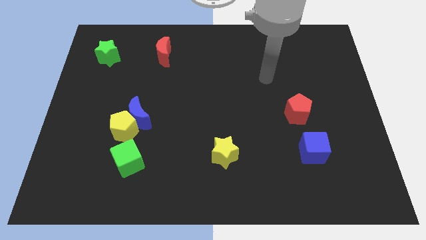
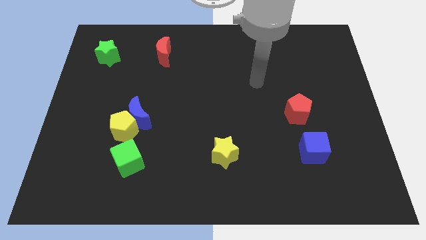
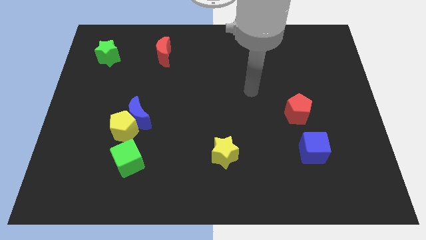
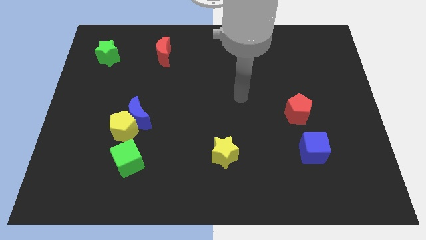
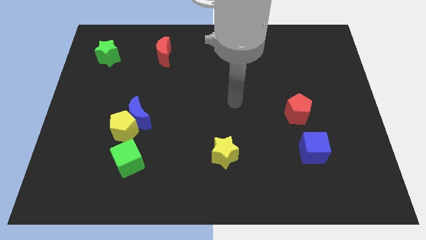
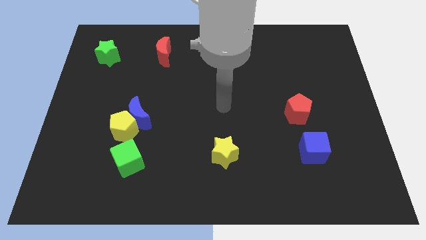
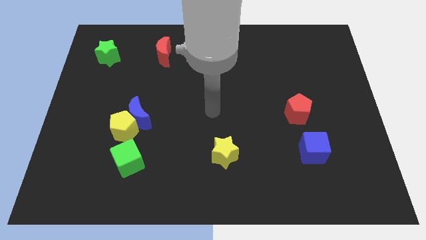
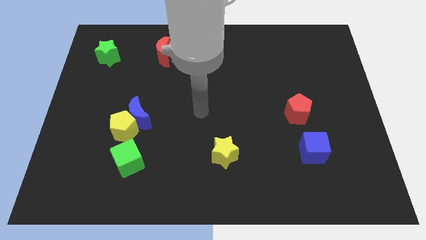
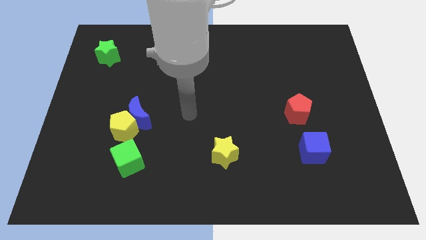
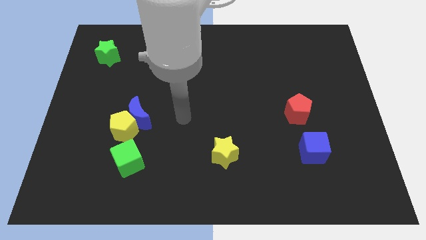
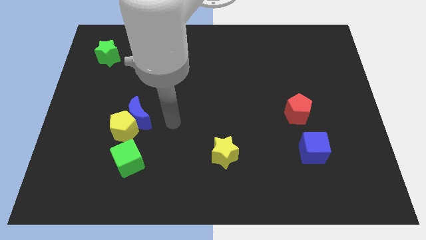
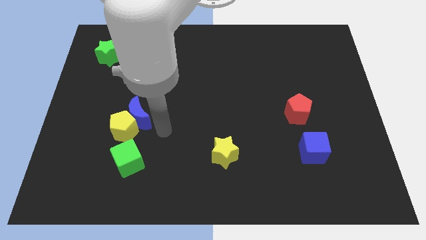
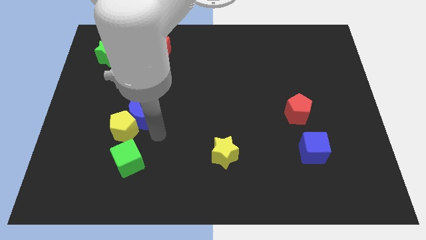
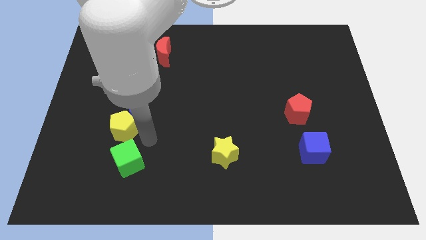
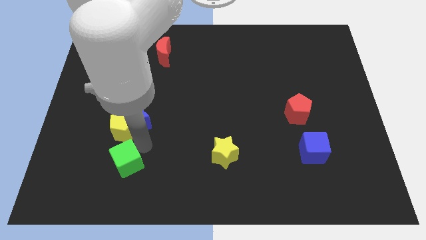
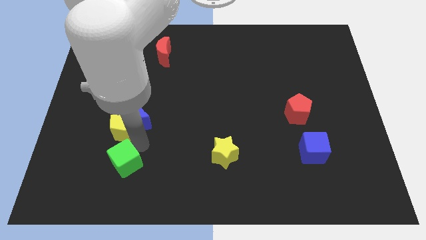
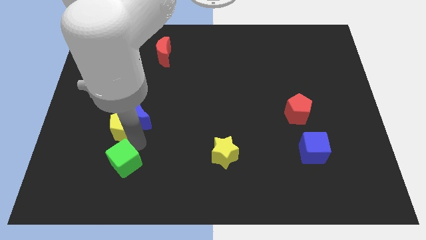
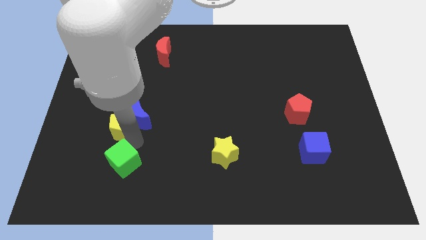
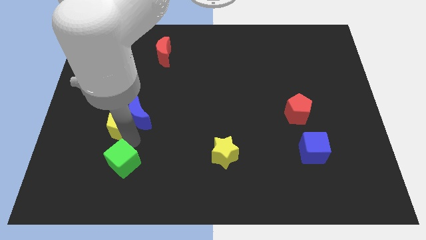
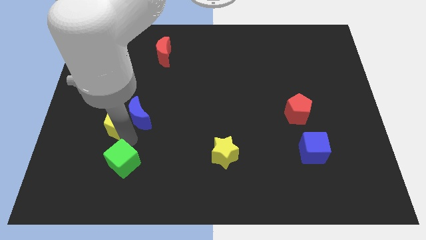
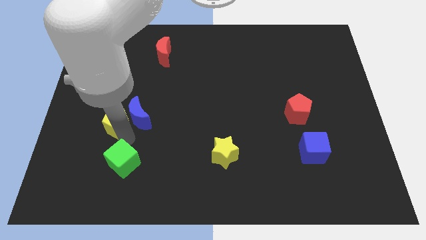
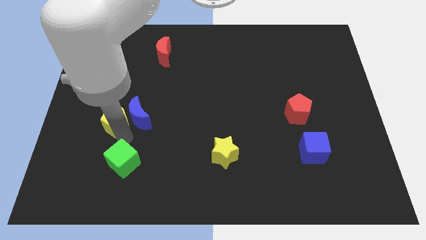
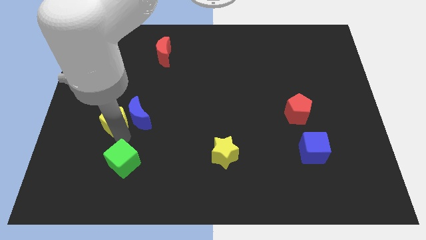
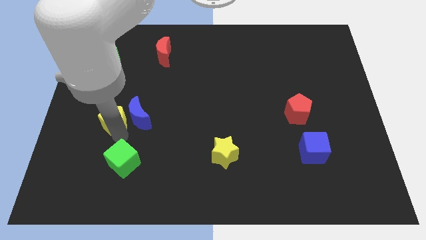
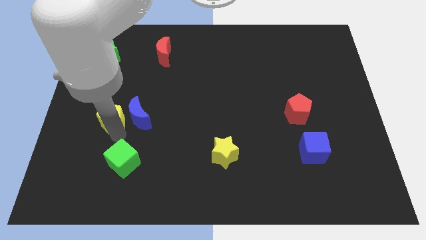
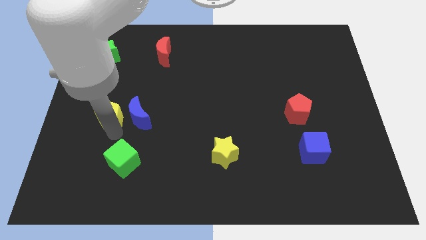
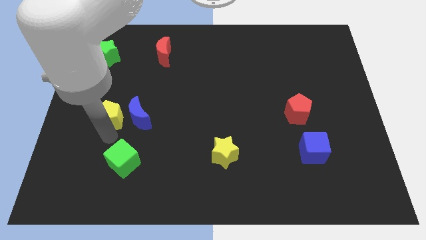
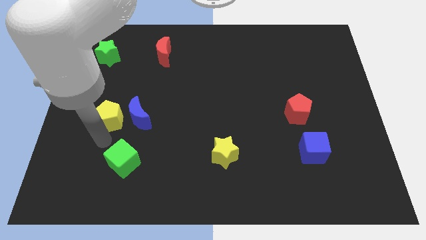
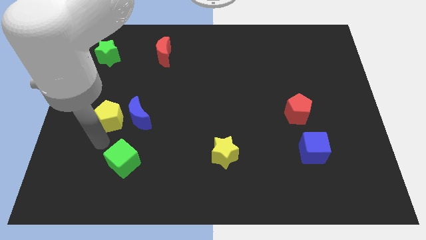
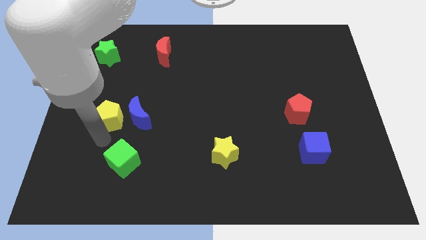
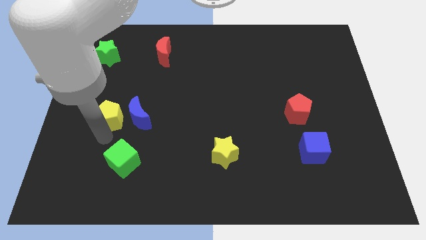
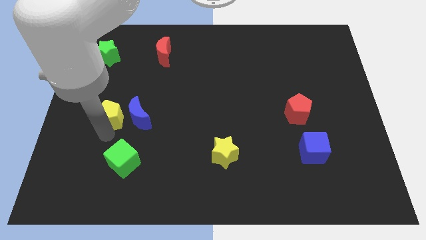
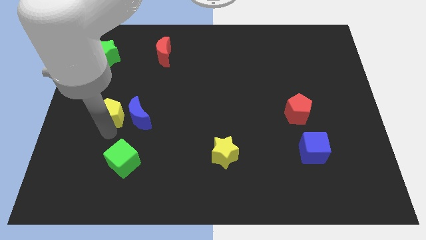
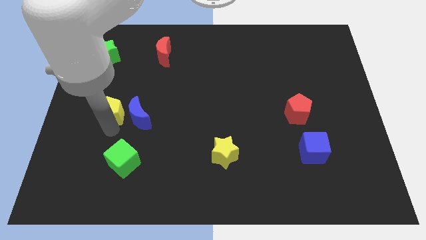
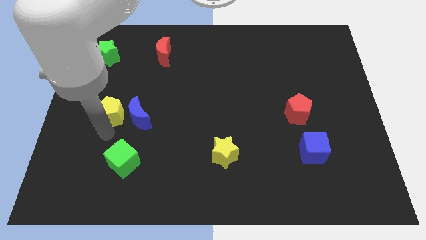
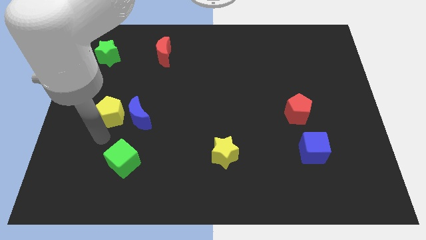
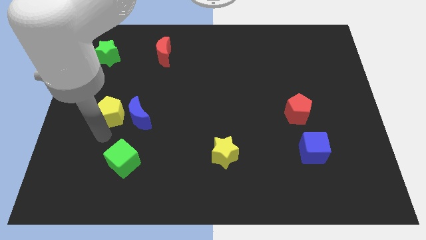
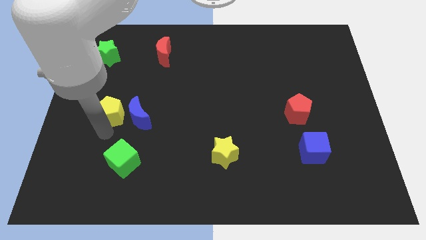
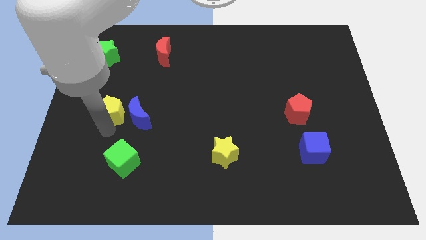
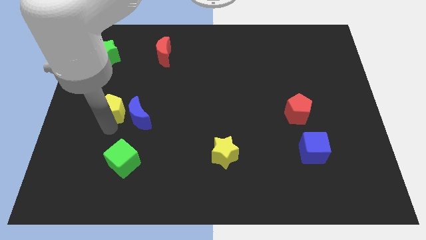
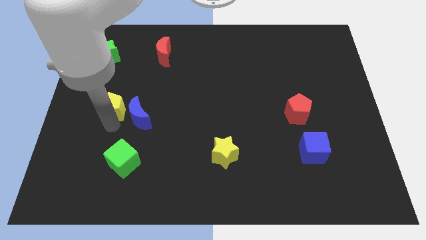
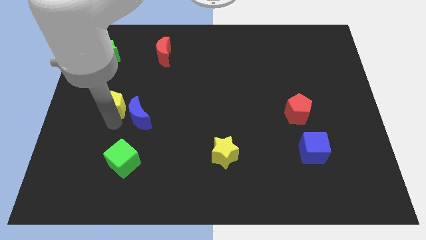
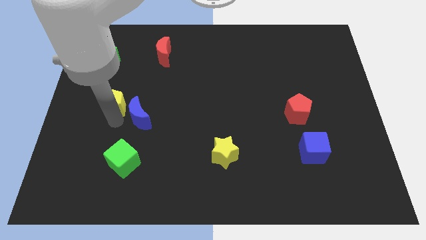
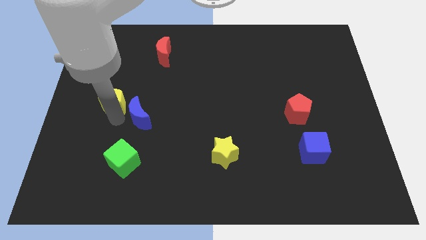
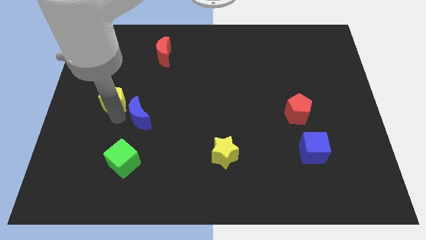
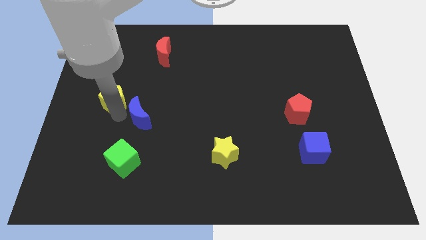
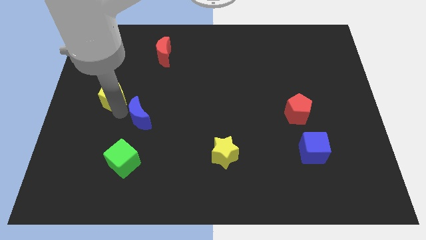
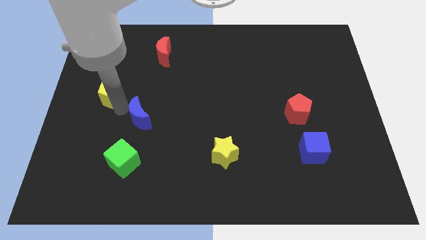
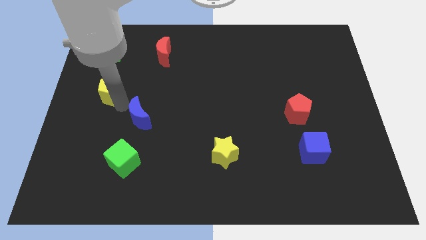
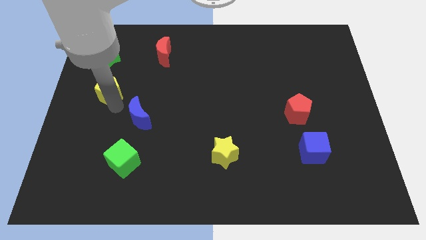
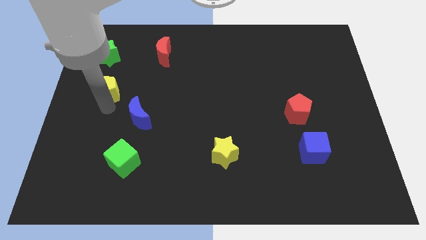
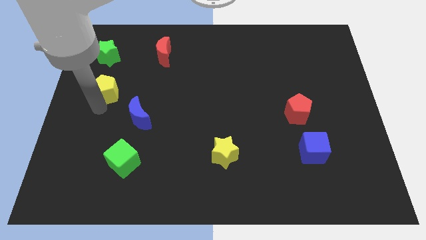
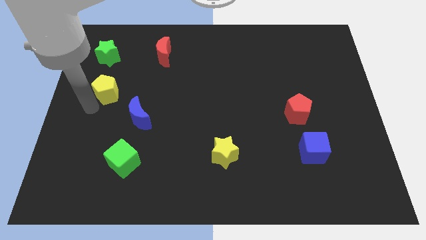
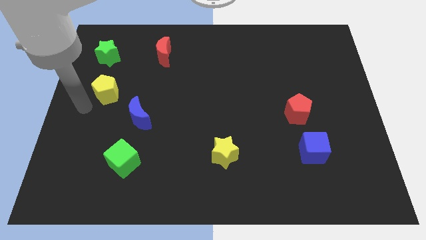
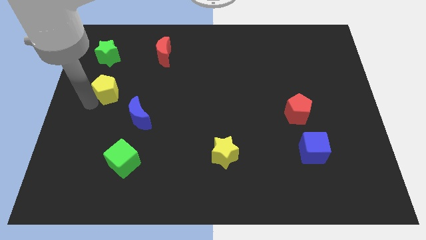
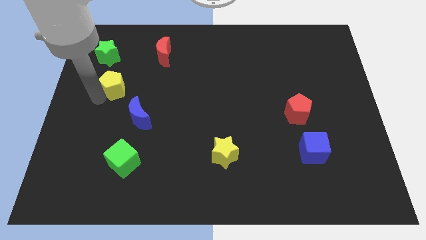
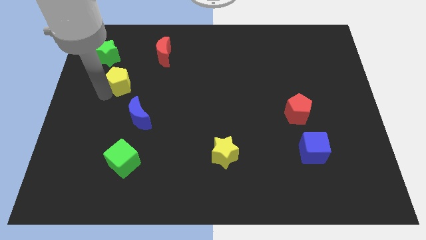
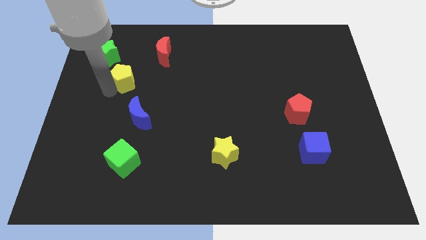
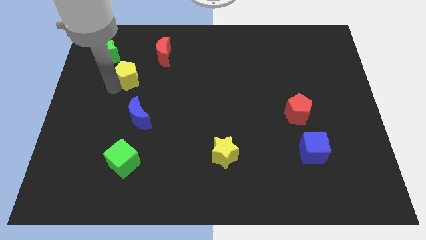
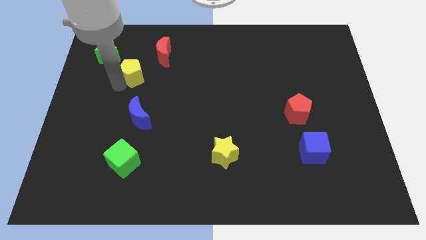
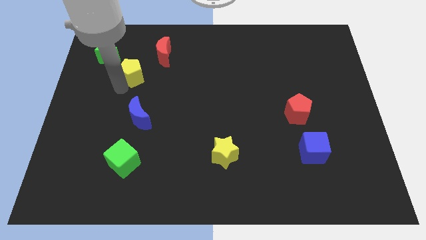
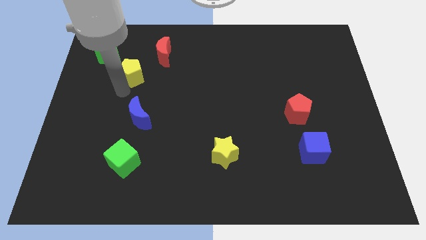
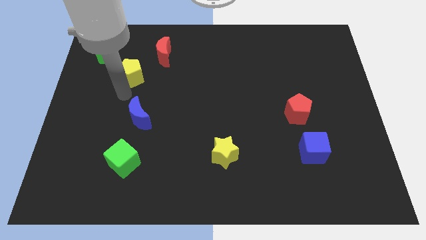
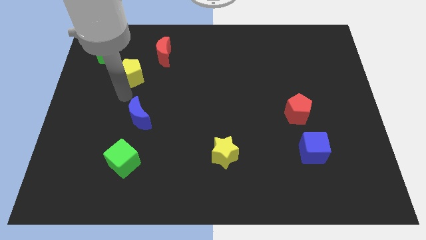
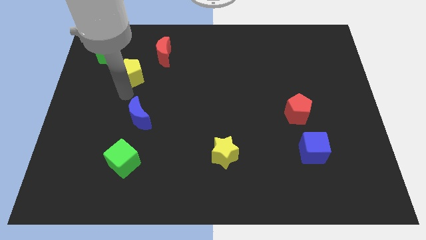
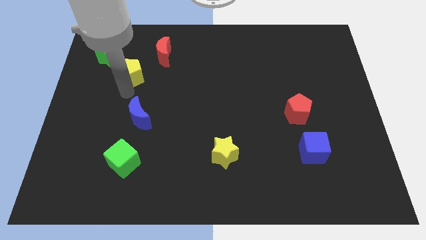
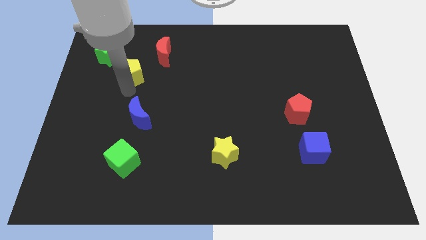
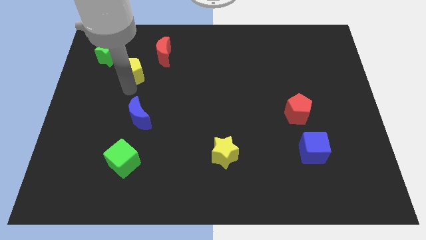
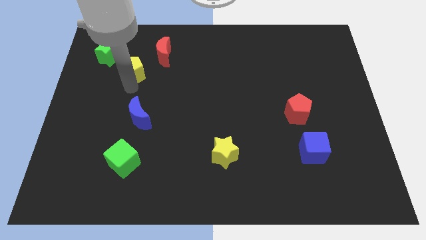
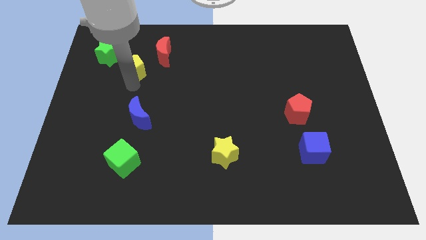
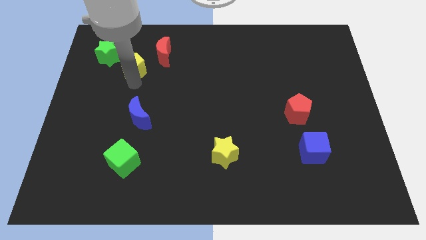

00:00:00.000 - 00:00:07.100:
put the yellow pentagon to the right side of the green star

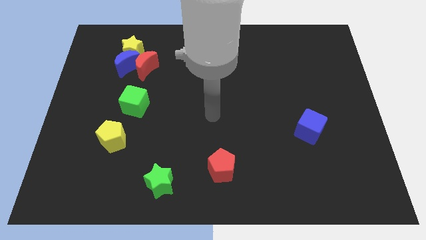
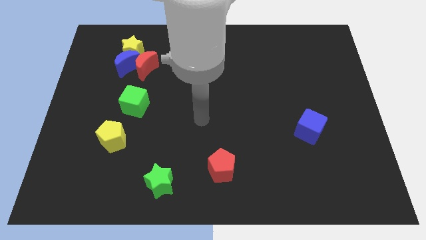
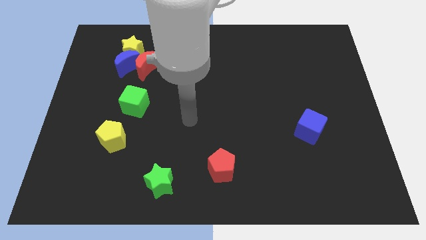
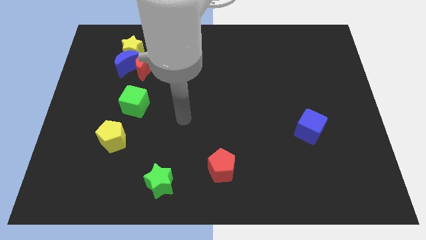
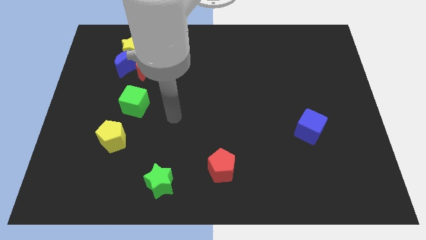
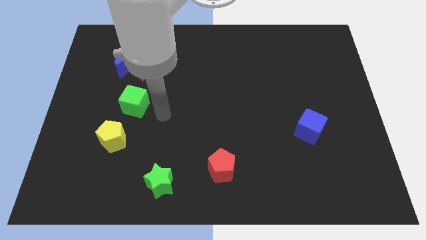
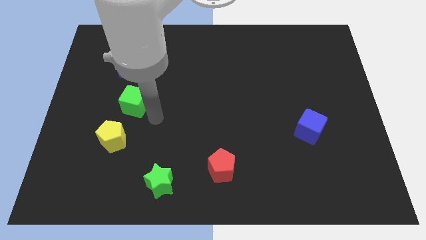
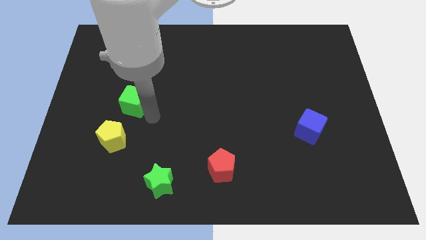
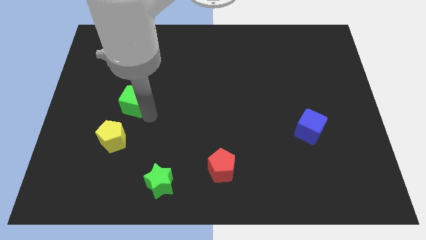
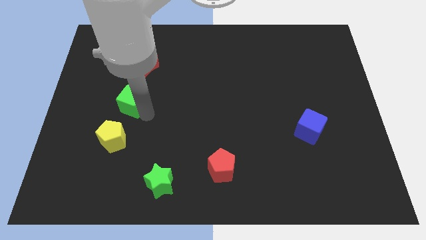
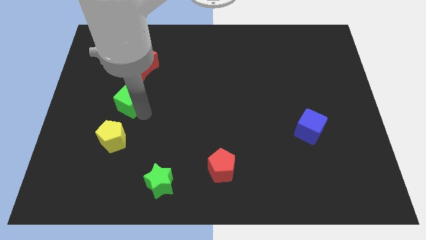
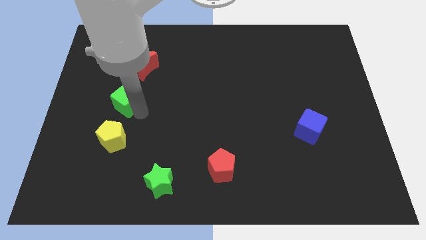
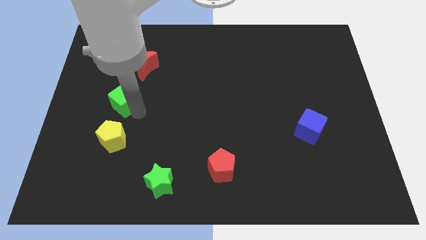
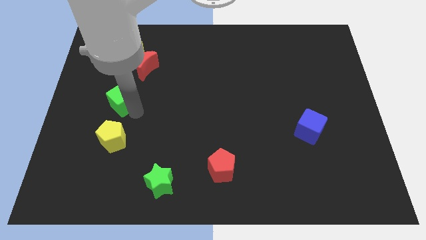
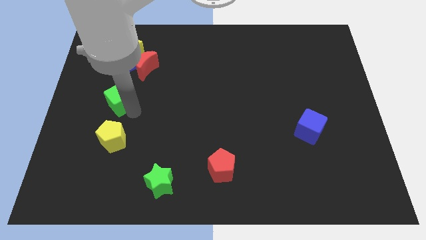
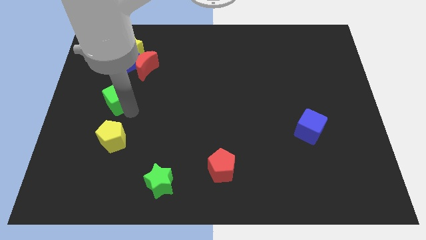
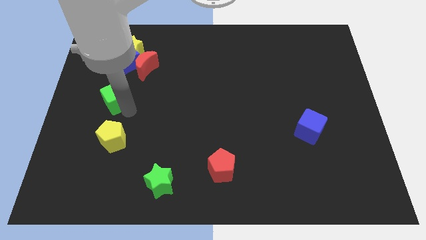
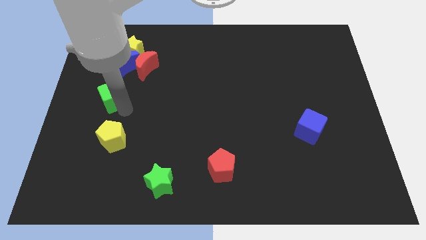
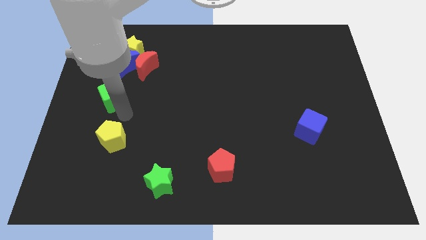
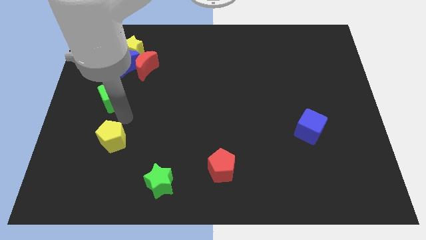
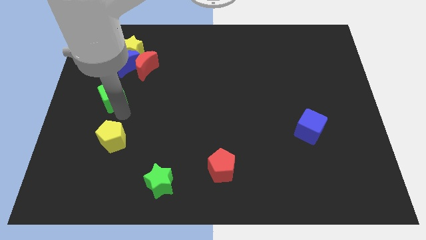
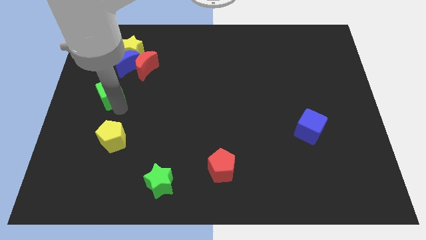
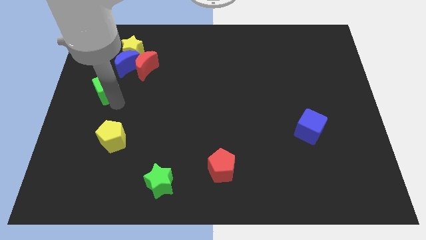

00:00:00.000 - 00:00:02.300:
slide the green cube to the bottom left of the blue moon
